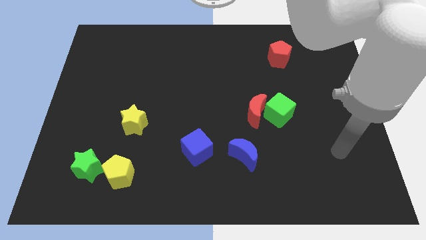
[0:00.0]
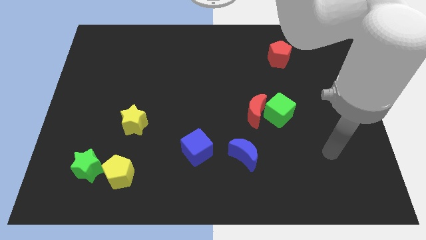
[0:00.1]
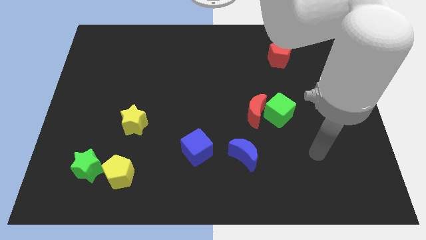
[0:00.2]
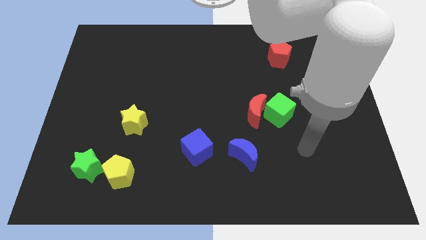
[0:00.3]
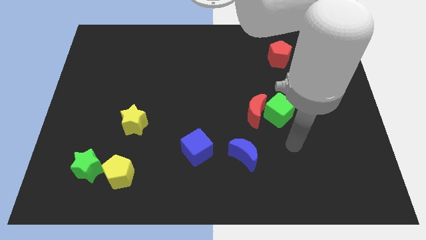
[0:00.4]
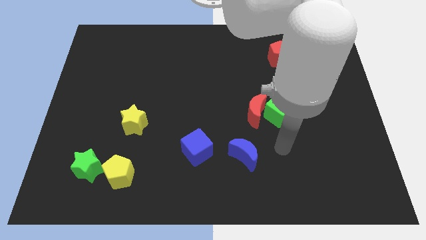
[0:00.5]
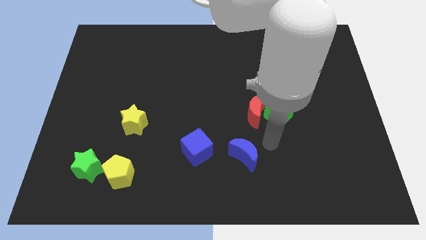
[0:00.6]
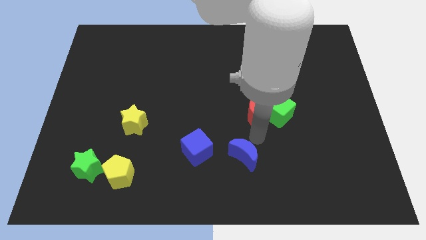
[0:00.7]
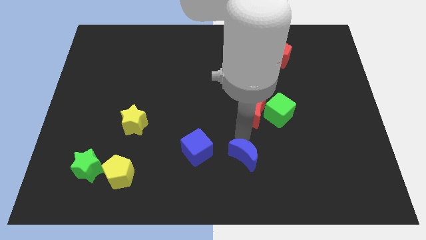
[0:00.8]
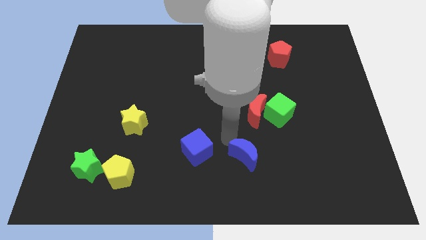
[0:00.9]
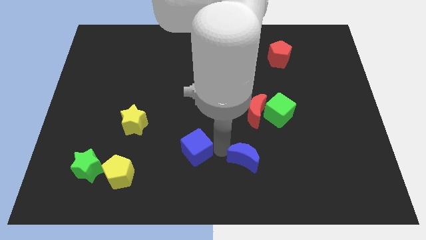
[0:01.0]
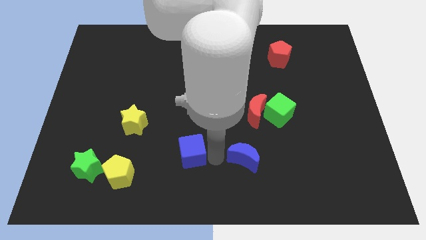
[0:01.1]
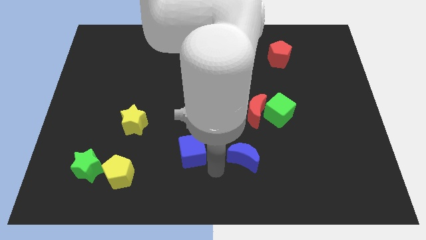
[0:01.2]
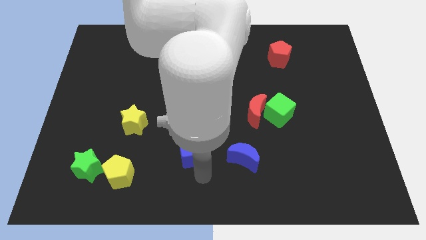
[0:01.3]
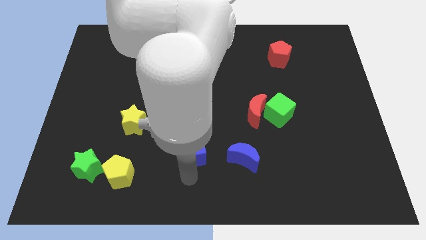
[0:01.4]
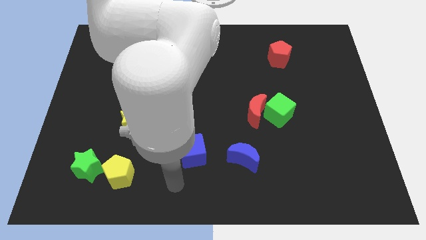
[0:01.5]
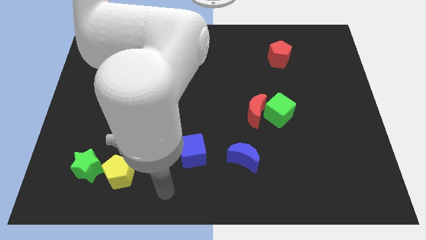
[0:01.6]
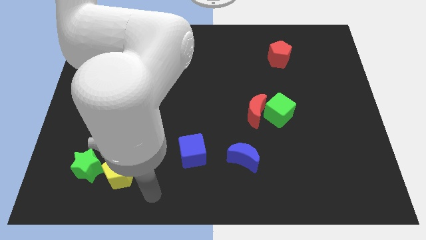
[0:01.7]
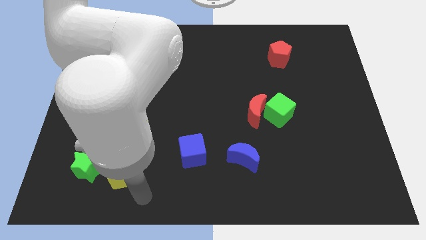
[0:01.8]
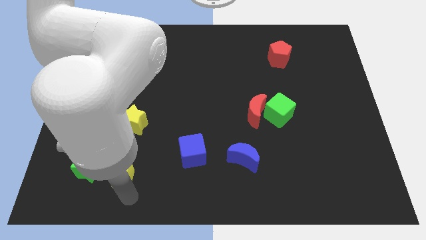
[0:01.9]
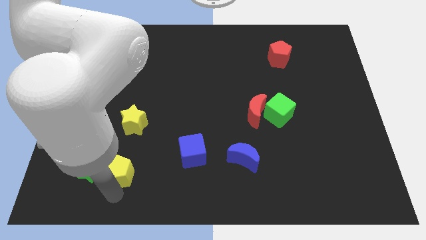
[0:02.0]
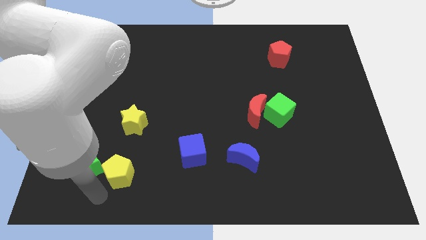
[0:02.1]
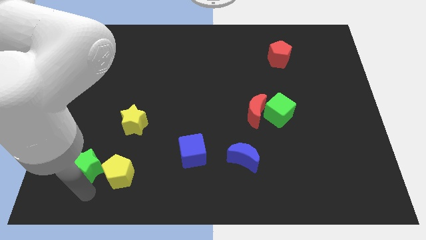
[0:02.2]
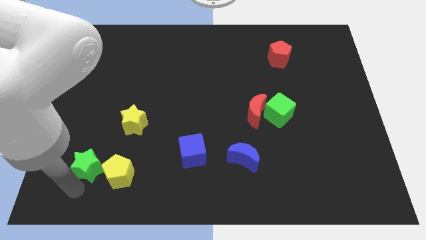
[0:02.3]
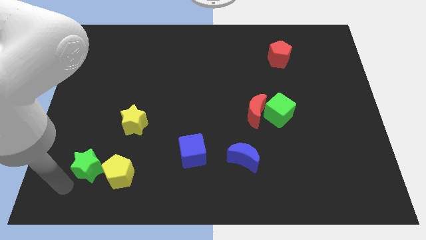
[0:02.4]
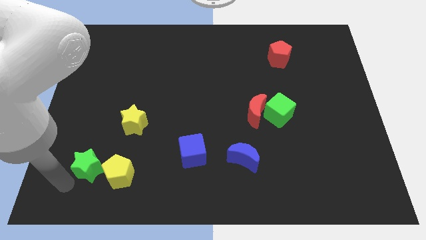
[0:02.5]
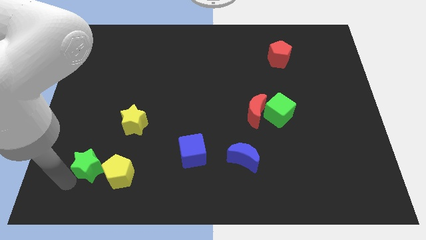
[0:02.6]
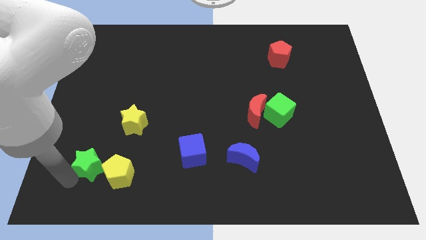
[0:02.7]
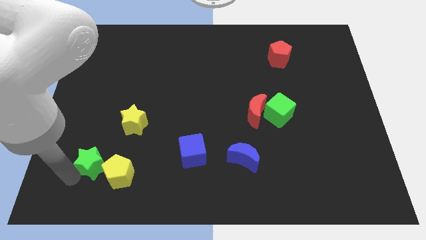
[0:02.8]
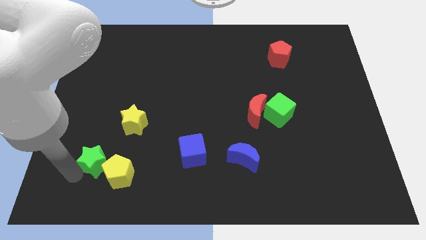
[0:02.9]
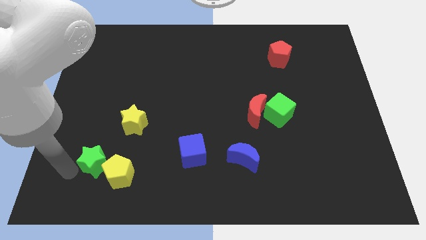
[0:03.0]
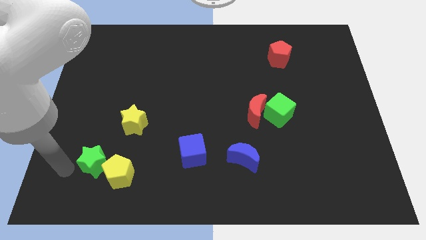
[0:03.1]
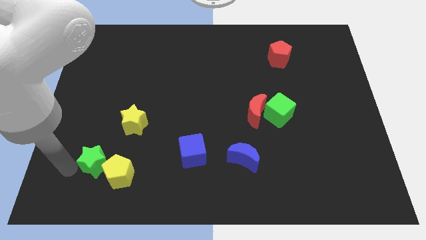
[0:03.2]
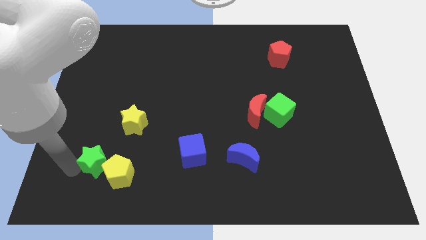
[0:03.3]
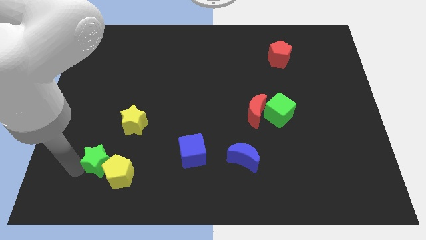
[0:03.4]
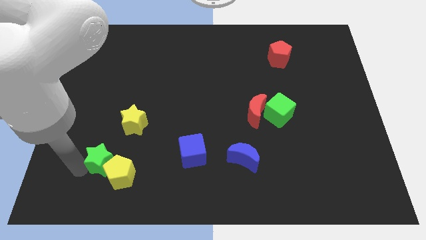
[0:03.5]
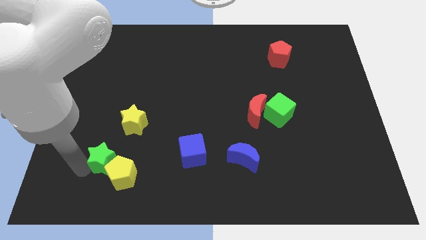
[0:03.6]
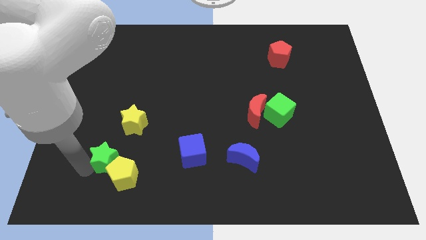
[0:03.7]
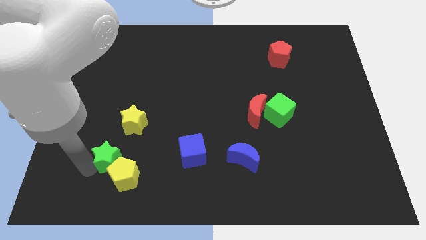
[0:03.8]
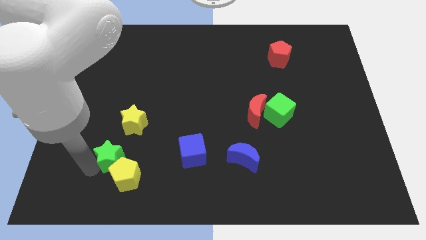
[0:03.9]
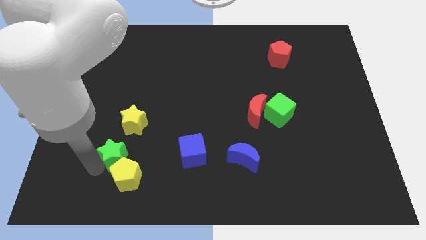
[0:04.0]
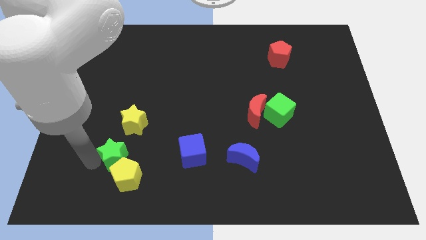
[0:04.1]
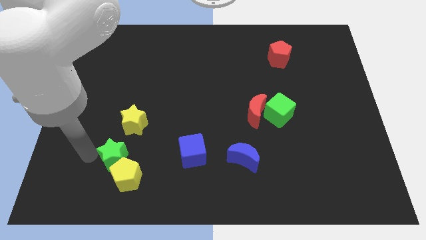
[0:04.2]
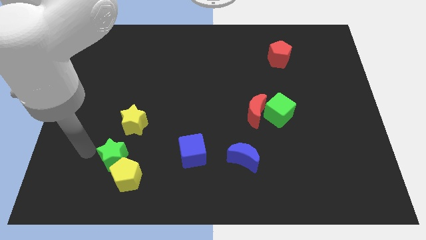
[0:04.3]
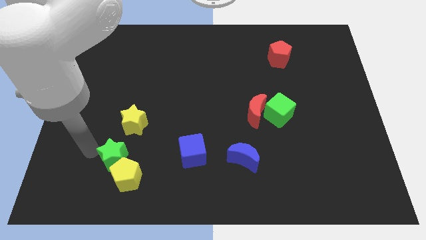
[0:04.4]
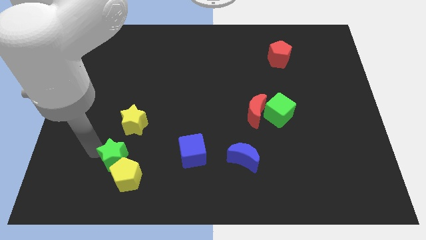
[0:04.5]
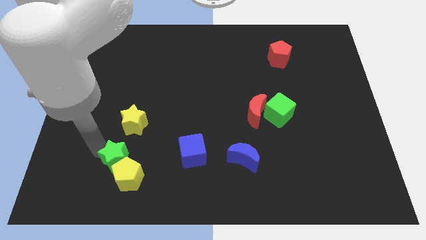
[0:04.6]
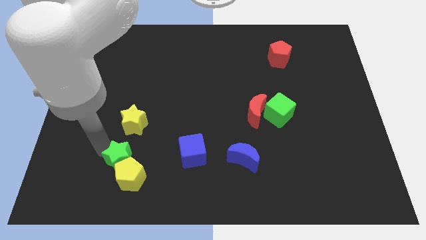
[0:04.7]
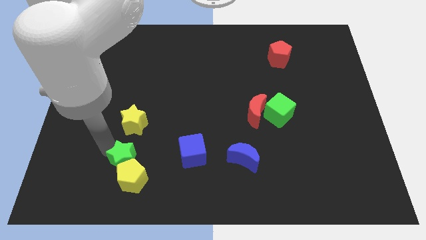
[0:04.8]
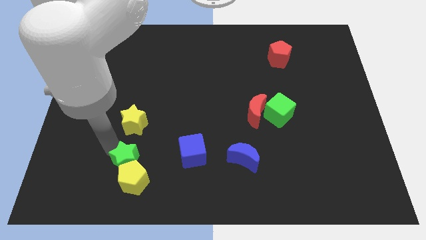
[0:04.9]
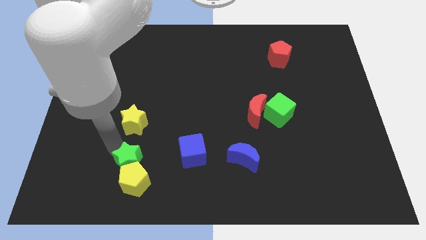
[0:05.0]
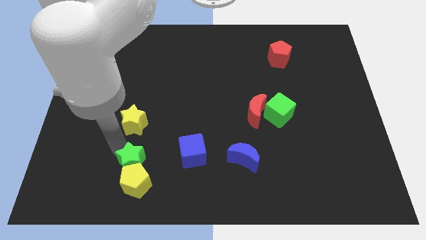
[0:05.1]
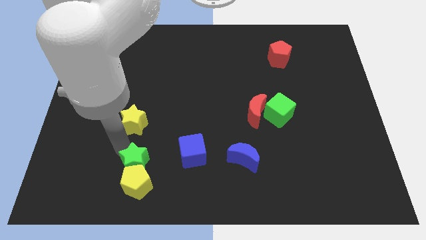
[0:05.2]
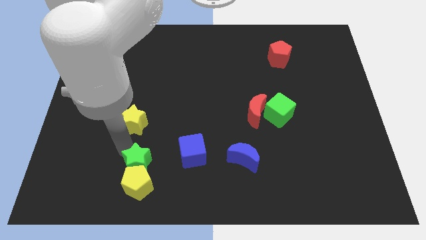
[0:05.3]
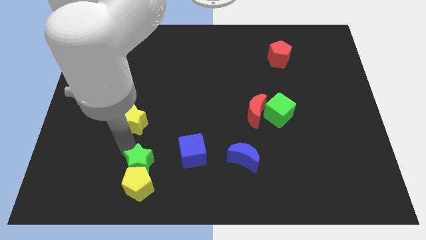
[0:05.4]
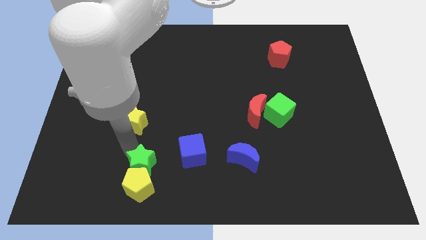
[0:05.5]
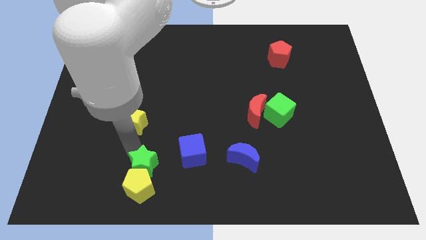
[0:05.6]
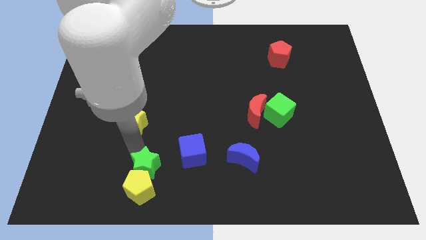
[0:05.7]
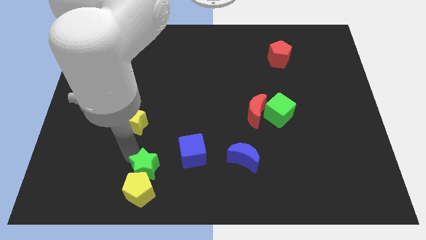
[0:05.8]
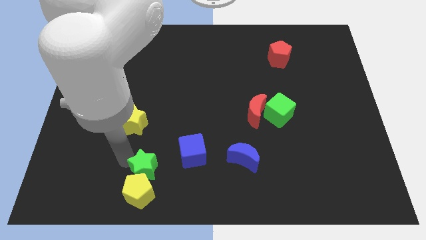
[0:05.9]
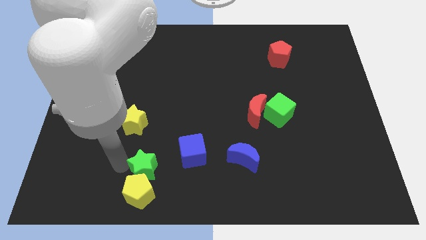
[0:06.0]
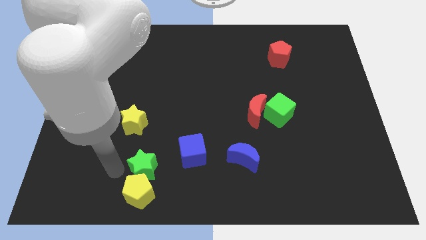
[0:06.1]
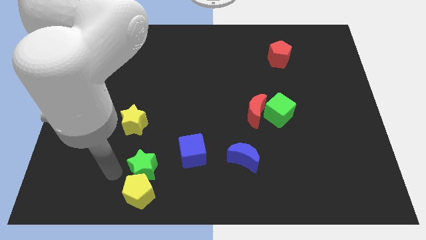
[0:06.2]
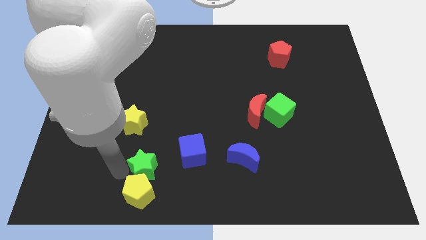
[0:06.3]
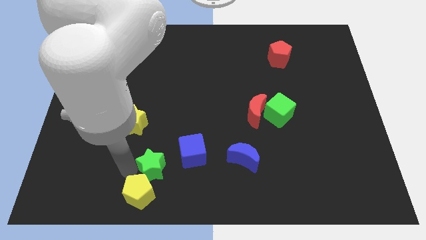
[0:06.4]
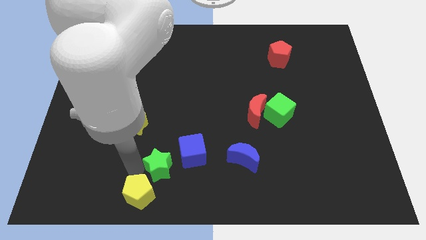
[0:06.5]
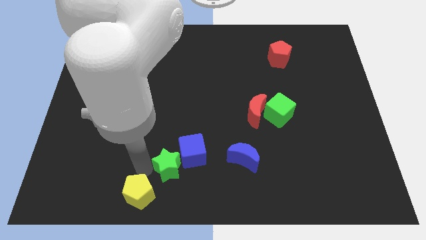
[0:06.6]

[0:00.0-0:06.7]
put the green star towards the blue cube
